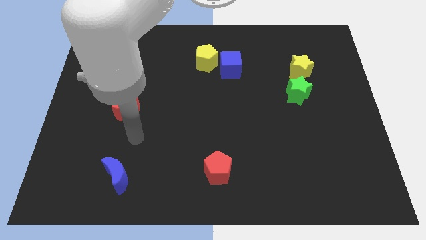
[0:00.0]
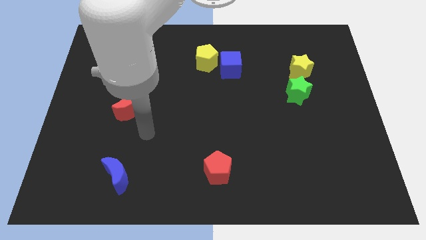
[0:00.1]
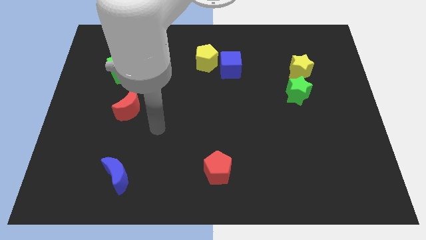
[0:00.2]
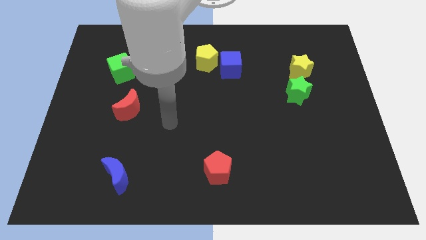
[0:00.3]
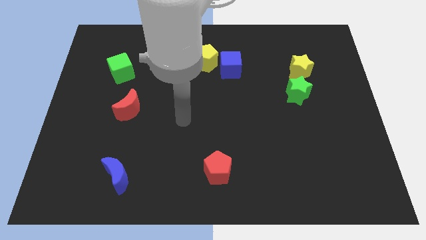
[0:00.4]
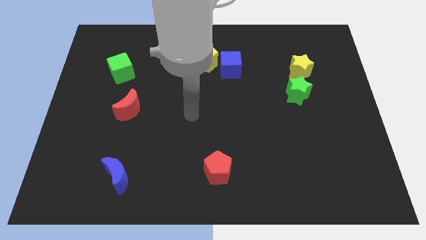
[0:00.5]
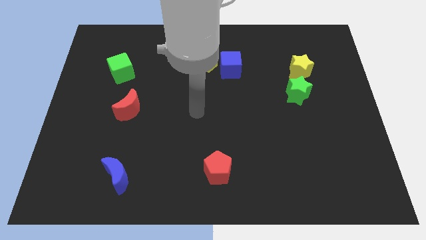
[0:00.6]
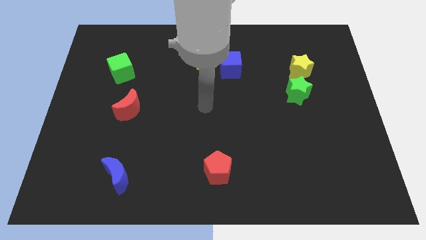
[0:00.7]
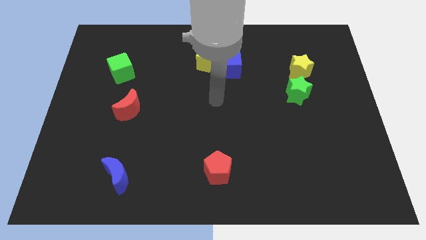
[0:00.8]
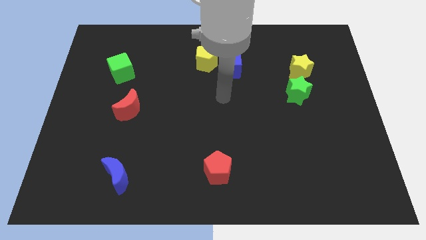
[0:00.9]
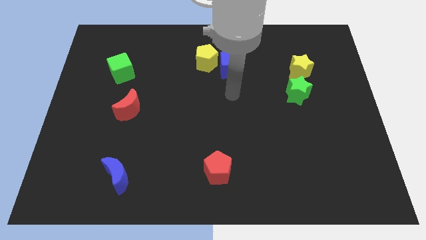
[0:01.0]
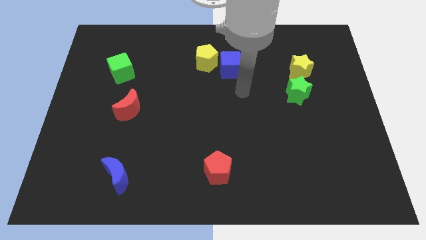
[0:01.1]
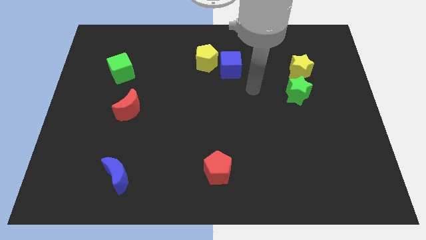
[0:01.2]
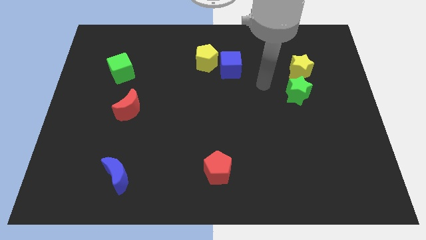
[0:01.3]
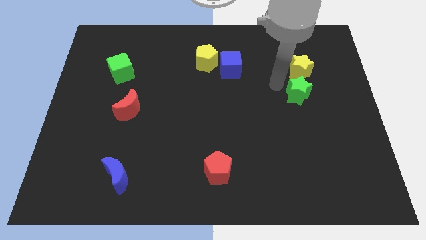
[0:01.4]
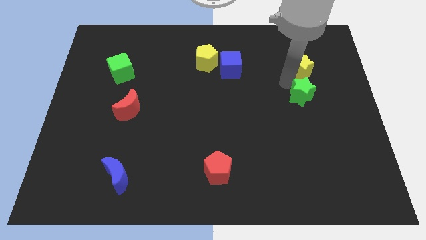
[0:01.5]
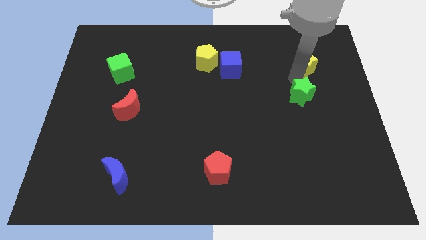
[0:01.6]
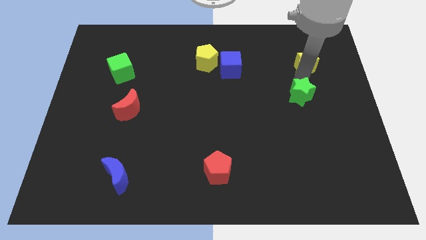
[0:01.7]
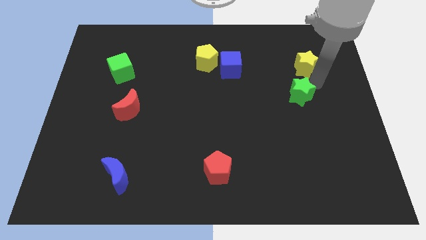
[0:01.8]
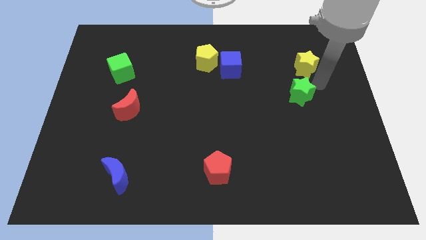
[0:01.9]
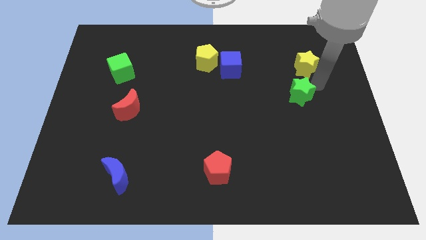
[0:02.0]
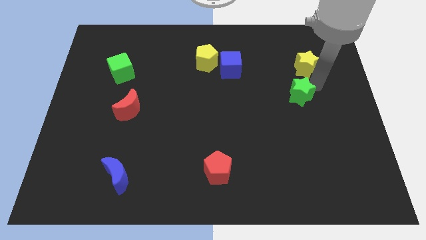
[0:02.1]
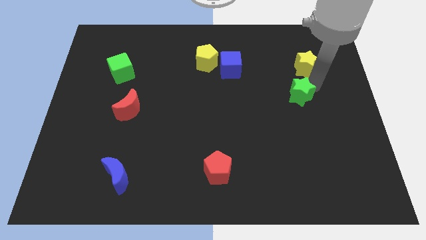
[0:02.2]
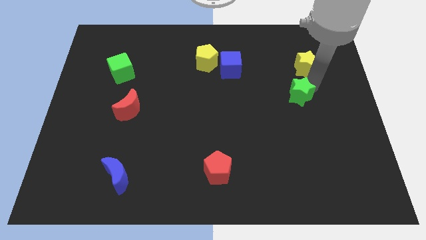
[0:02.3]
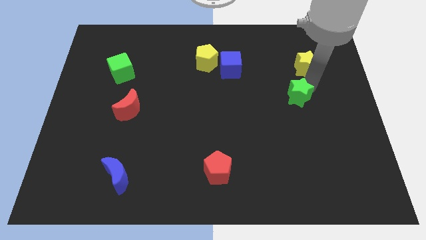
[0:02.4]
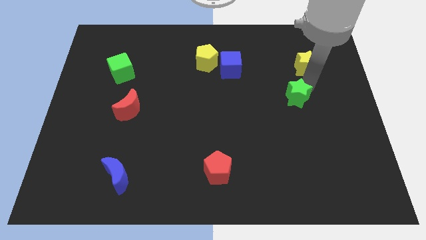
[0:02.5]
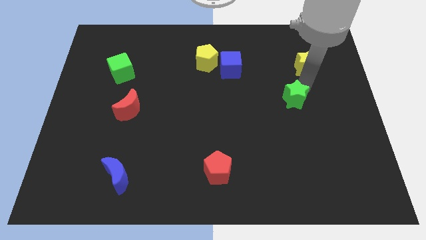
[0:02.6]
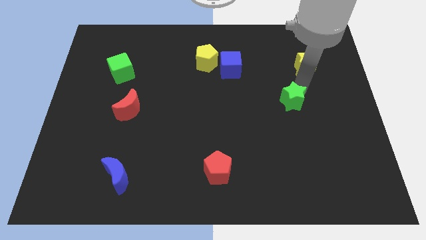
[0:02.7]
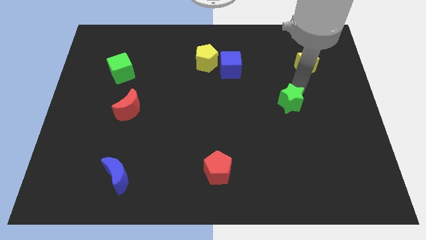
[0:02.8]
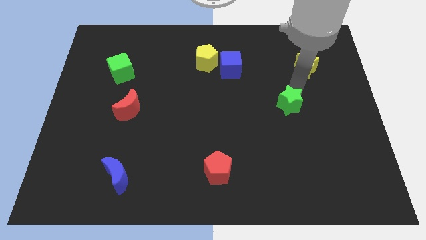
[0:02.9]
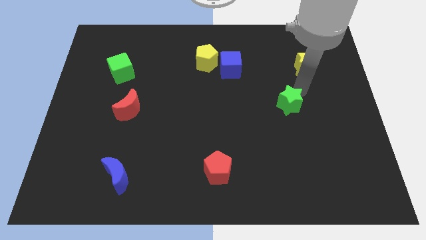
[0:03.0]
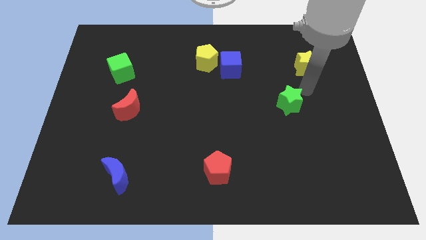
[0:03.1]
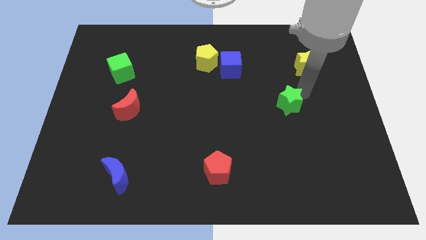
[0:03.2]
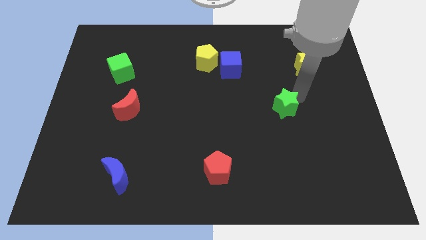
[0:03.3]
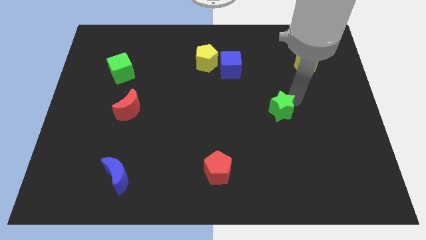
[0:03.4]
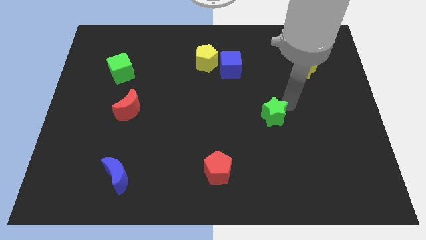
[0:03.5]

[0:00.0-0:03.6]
move the green star downwards and to the left a little

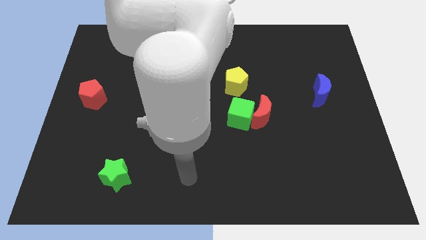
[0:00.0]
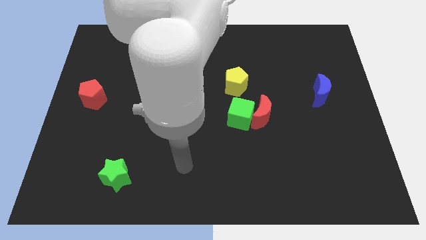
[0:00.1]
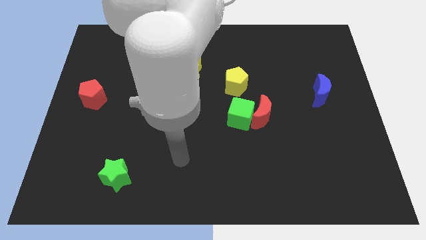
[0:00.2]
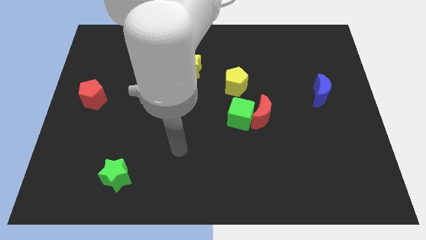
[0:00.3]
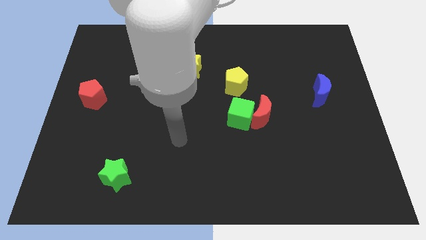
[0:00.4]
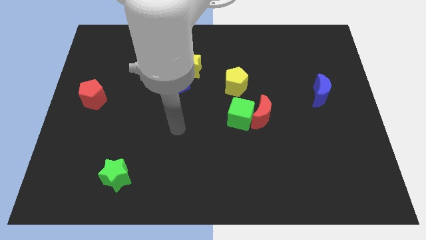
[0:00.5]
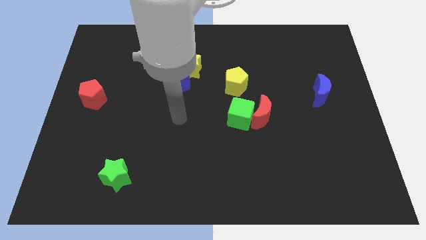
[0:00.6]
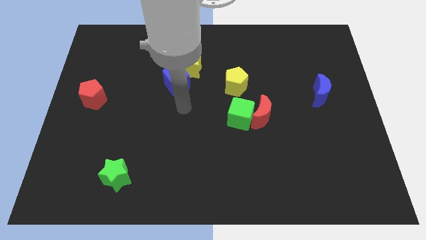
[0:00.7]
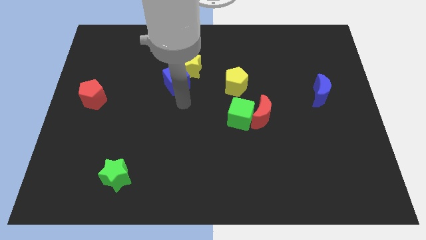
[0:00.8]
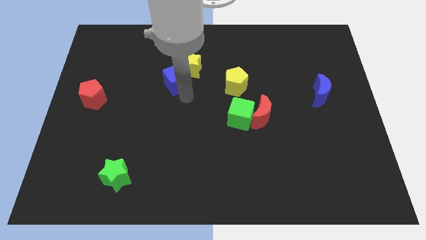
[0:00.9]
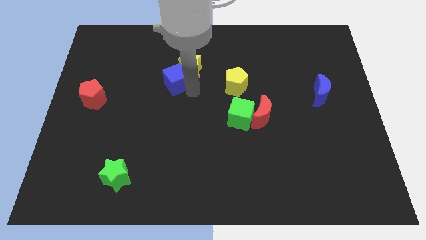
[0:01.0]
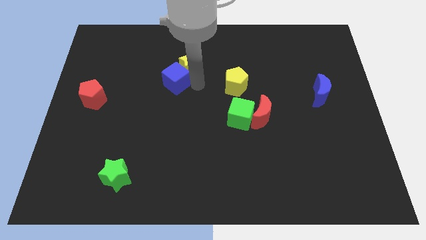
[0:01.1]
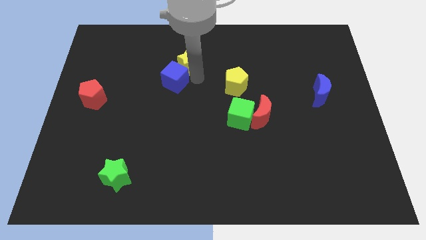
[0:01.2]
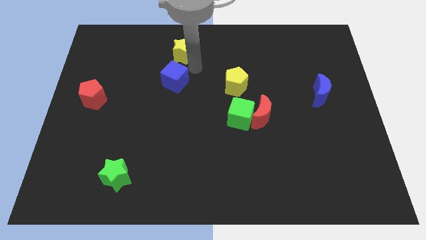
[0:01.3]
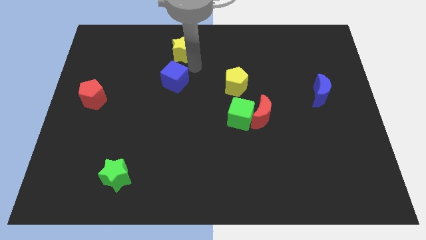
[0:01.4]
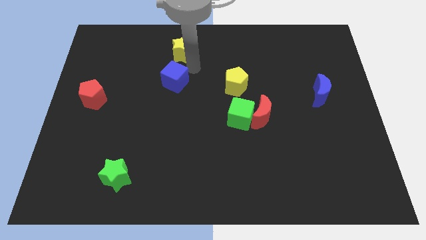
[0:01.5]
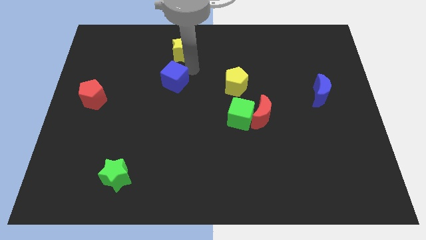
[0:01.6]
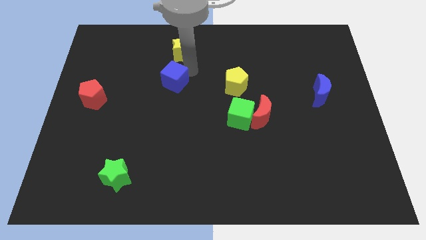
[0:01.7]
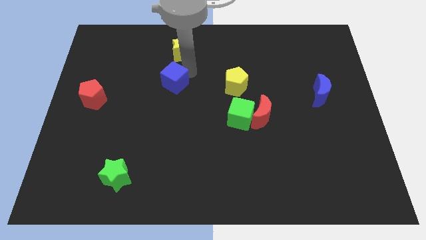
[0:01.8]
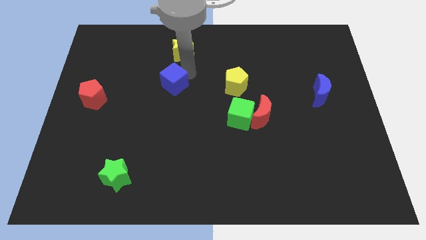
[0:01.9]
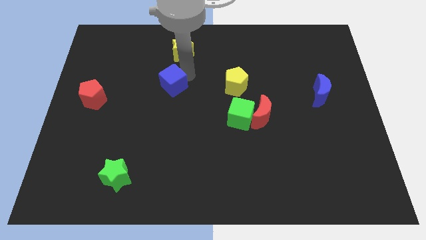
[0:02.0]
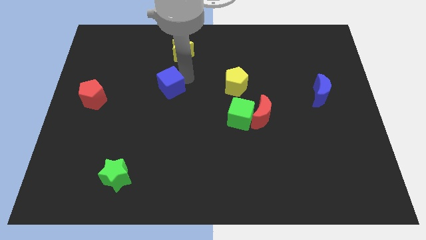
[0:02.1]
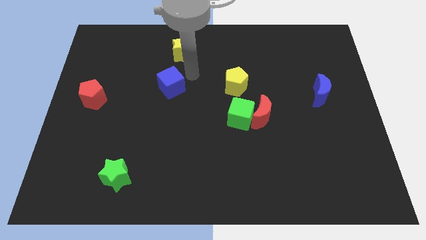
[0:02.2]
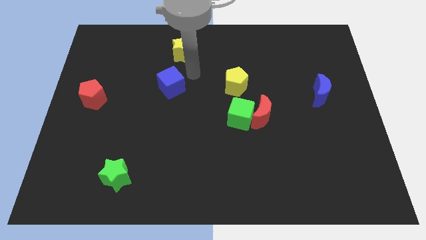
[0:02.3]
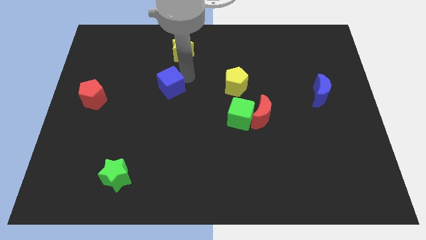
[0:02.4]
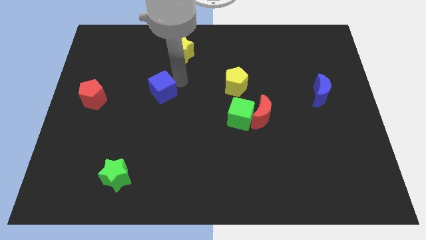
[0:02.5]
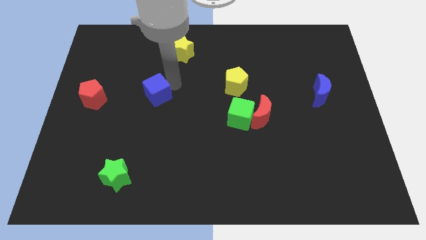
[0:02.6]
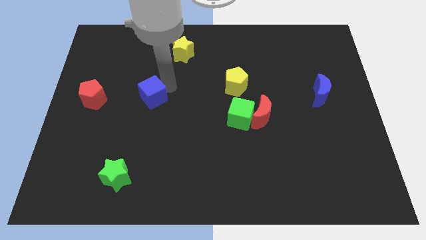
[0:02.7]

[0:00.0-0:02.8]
slide the blue cube downwards and to the left diagonally somewhat

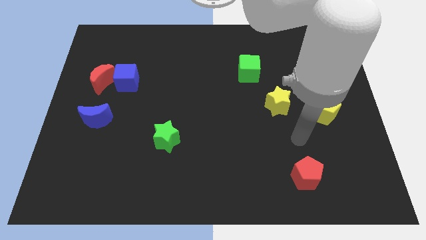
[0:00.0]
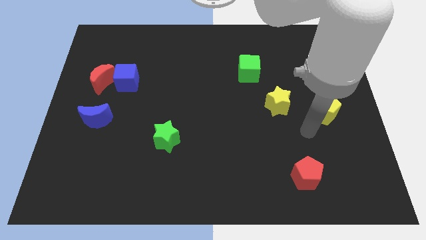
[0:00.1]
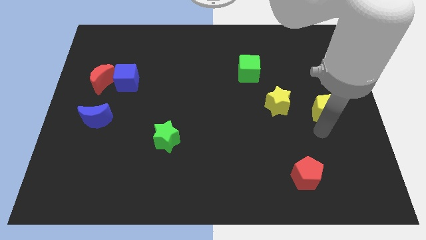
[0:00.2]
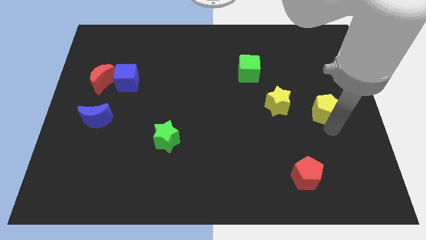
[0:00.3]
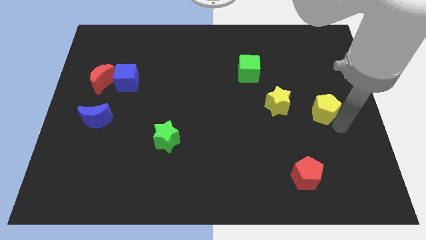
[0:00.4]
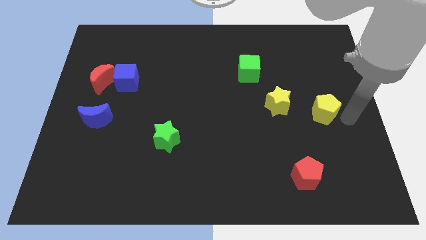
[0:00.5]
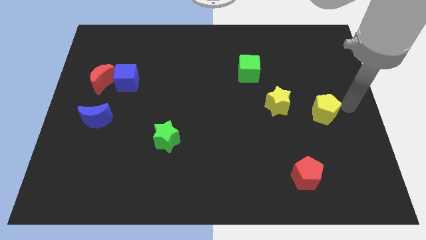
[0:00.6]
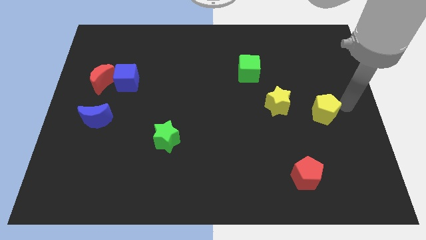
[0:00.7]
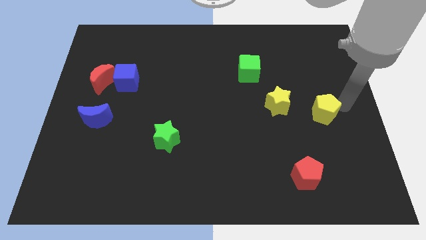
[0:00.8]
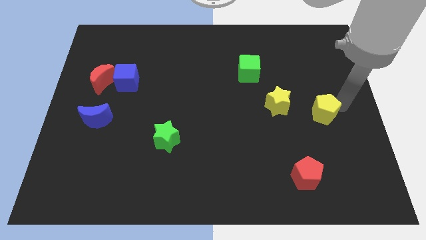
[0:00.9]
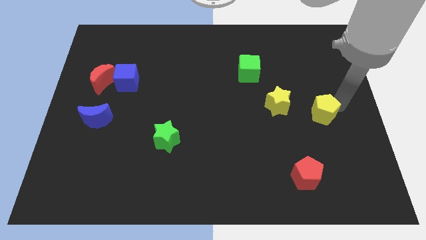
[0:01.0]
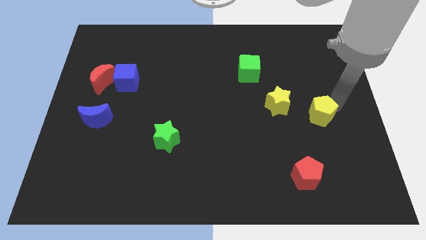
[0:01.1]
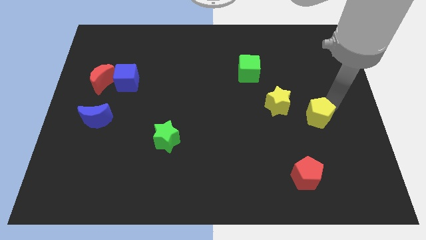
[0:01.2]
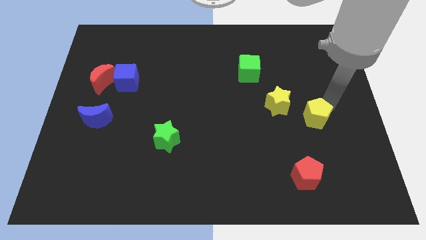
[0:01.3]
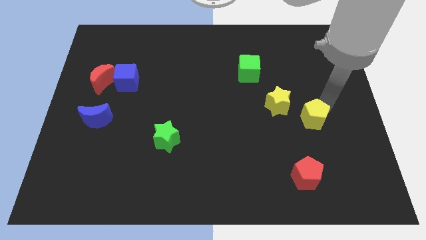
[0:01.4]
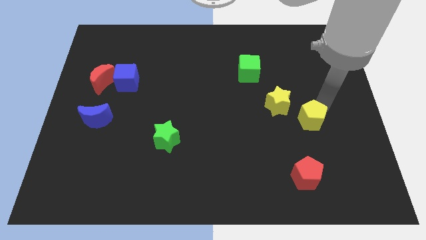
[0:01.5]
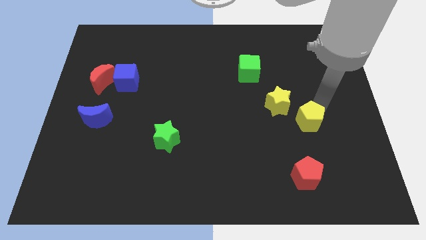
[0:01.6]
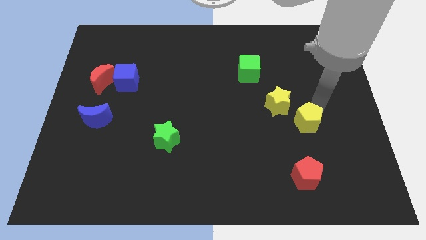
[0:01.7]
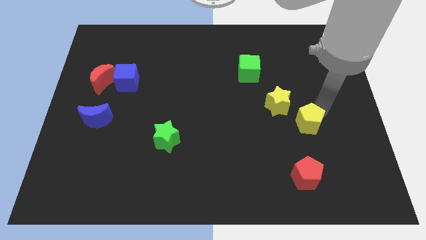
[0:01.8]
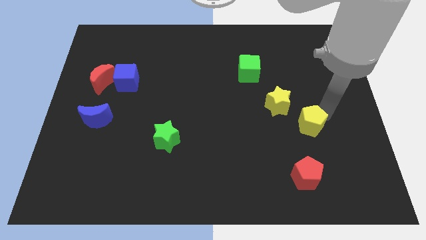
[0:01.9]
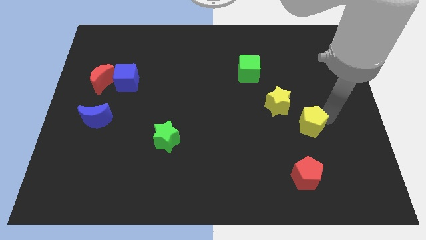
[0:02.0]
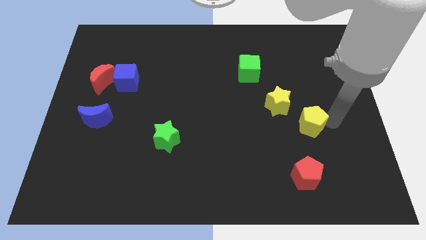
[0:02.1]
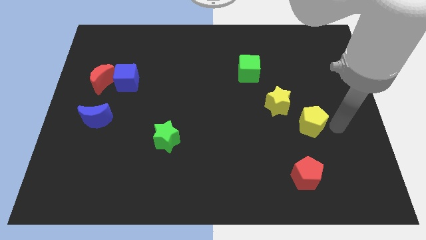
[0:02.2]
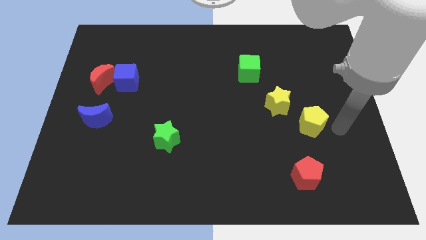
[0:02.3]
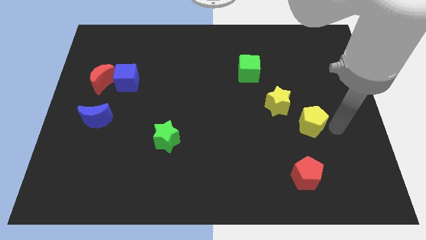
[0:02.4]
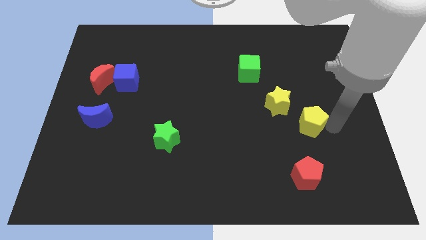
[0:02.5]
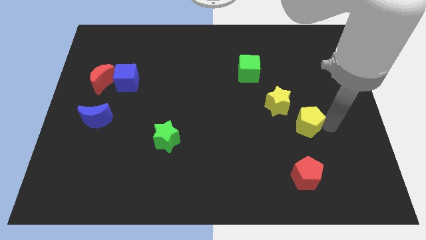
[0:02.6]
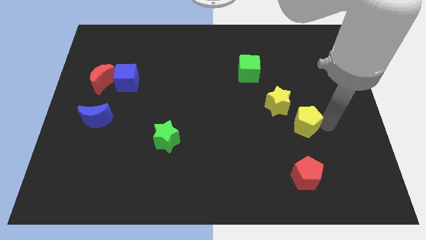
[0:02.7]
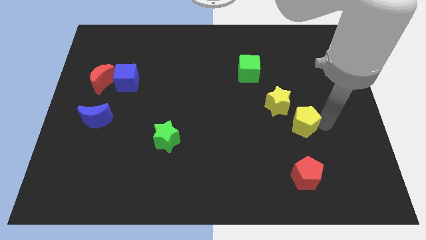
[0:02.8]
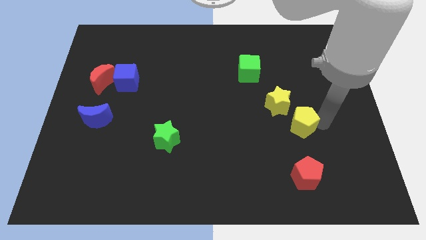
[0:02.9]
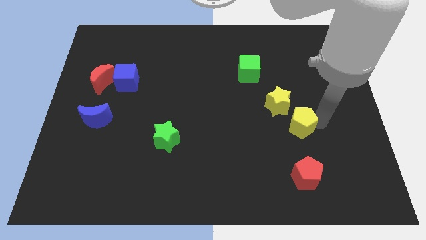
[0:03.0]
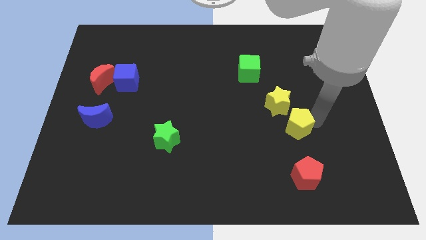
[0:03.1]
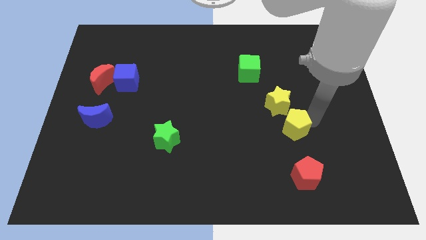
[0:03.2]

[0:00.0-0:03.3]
move the yellow pentagon somewhat left
